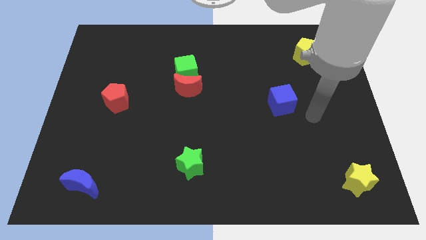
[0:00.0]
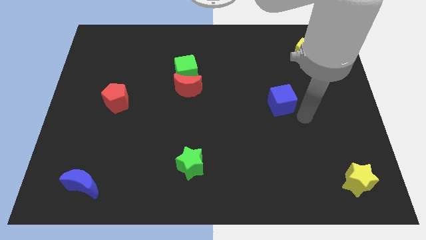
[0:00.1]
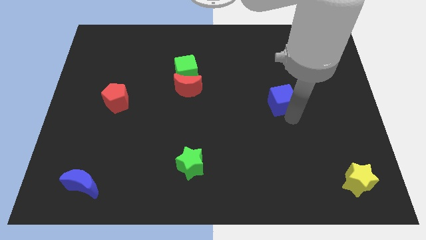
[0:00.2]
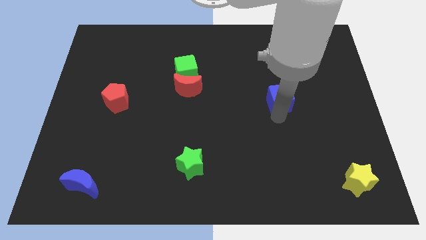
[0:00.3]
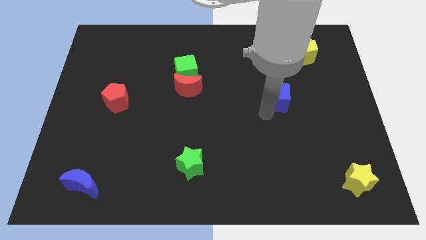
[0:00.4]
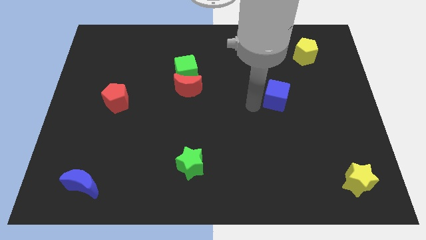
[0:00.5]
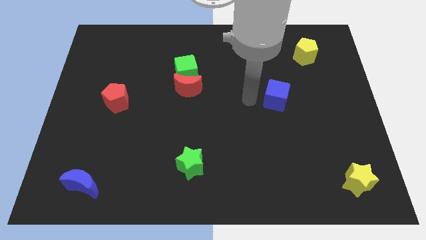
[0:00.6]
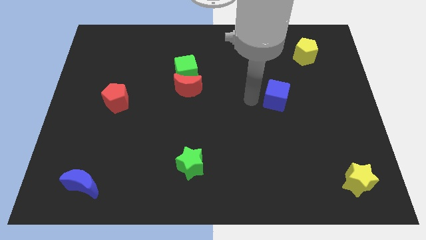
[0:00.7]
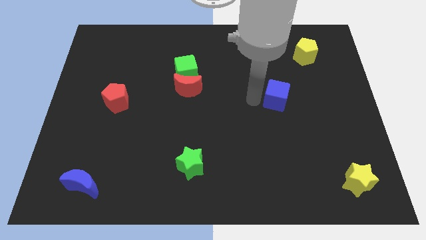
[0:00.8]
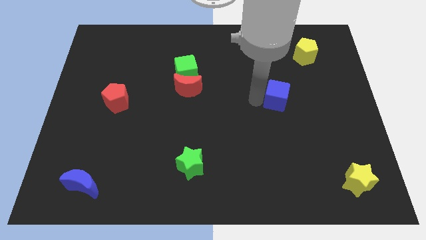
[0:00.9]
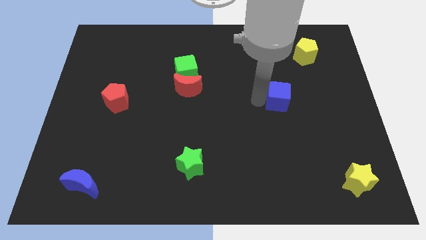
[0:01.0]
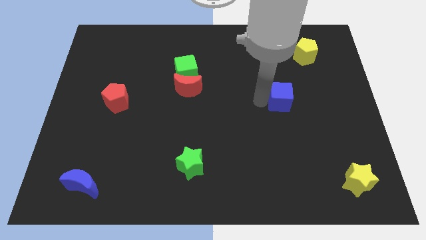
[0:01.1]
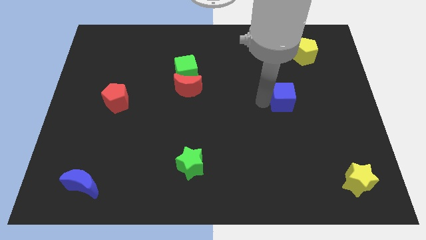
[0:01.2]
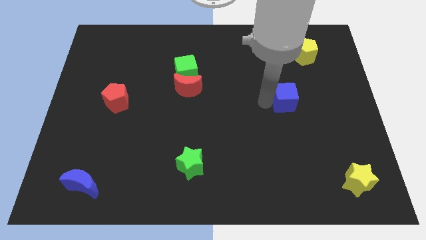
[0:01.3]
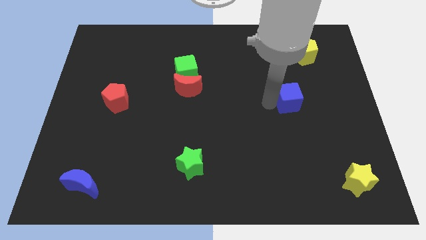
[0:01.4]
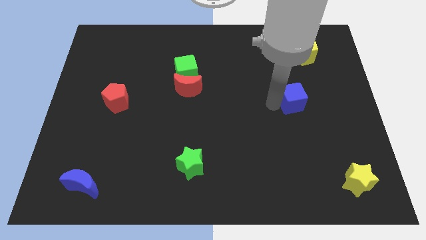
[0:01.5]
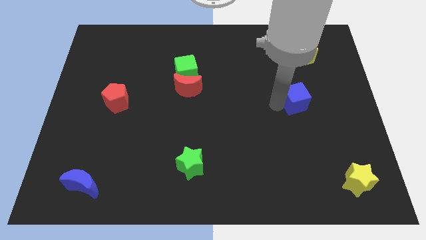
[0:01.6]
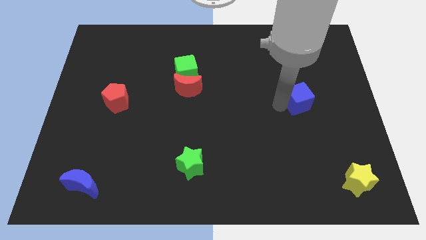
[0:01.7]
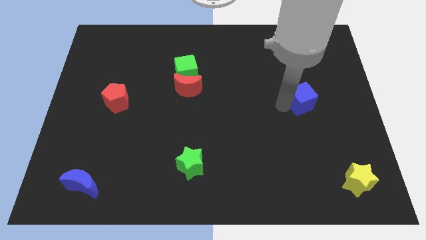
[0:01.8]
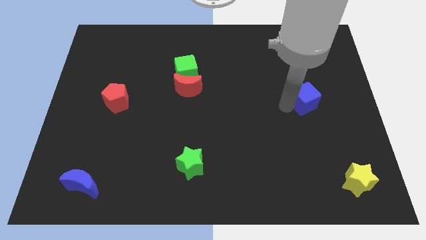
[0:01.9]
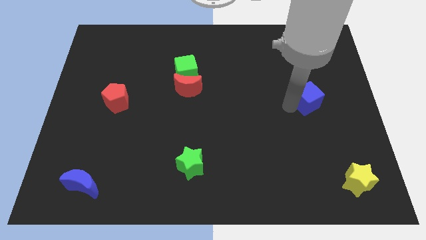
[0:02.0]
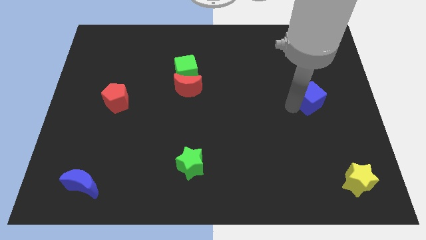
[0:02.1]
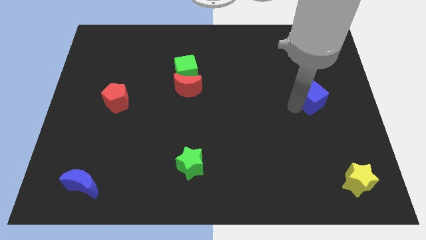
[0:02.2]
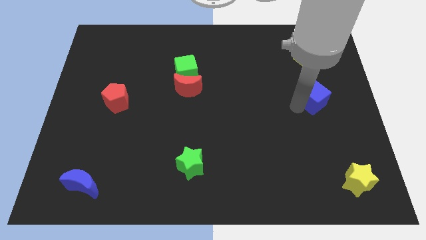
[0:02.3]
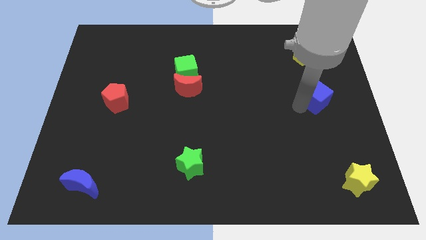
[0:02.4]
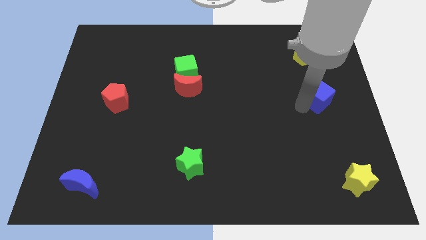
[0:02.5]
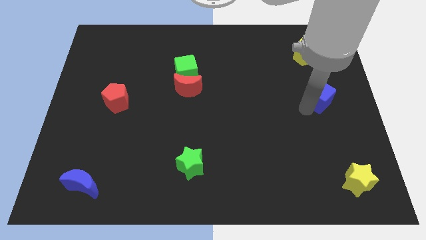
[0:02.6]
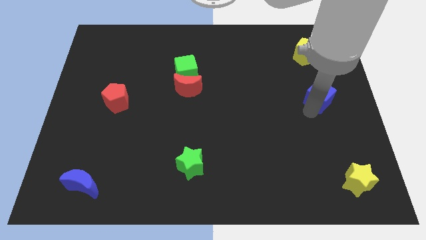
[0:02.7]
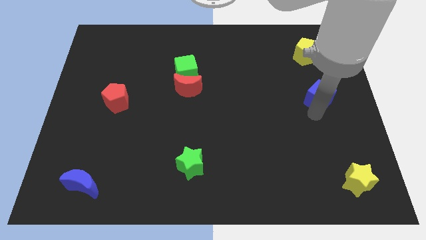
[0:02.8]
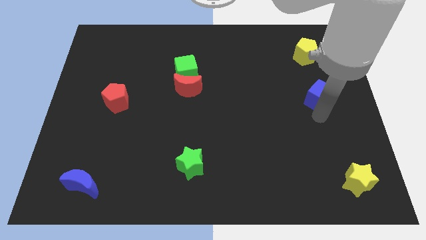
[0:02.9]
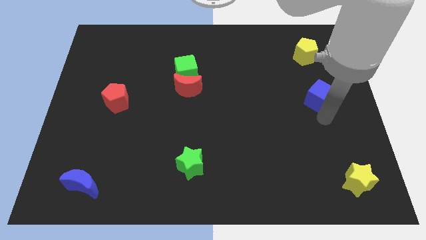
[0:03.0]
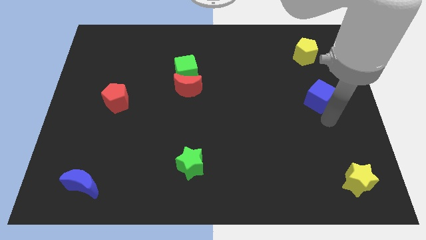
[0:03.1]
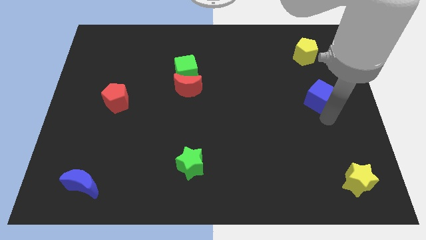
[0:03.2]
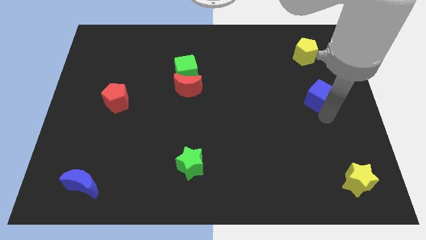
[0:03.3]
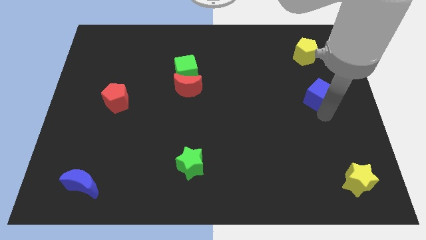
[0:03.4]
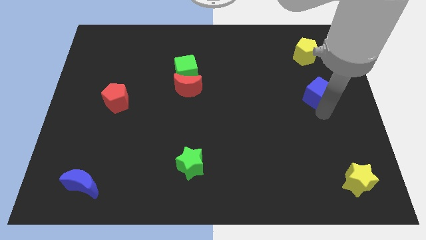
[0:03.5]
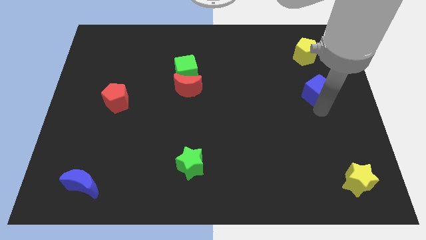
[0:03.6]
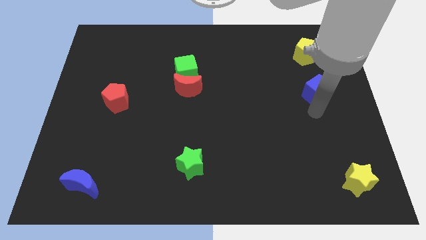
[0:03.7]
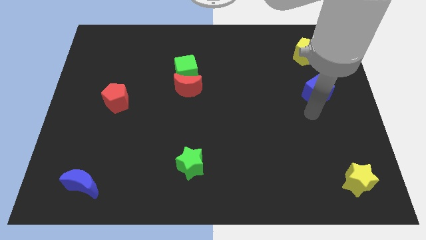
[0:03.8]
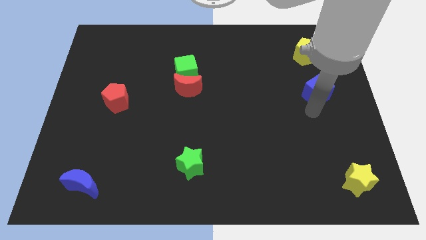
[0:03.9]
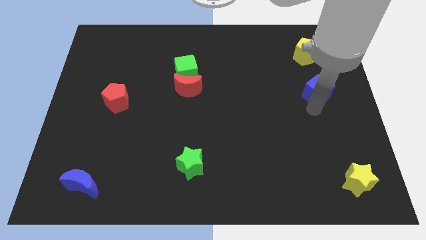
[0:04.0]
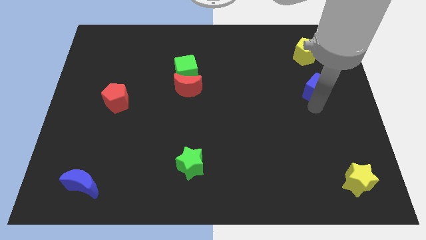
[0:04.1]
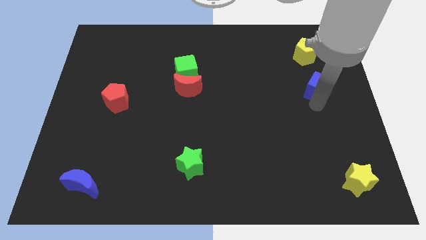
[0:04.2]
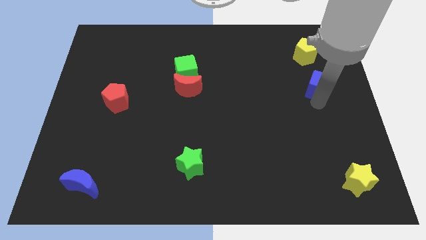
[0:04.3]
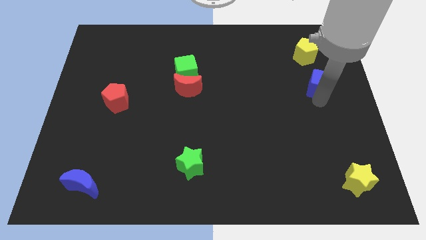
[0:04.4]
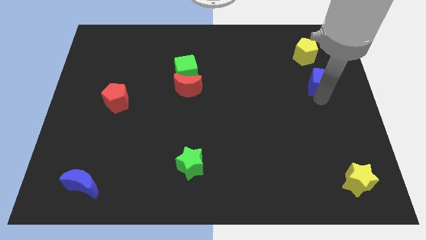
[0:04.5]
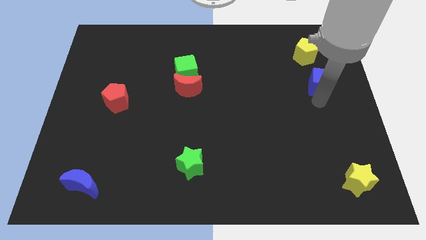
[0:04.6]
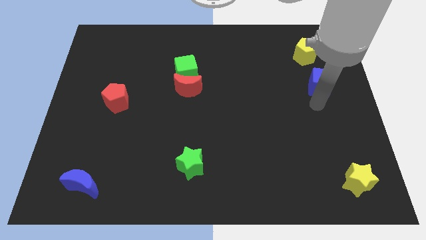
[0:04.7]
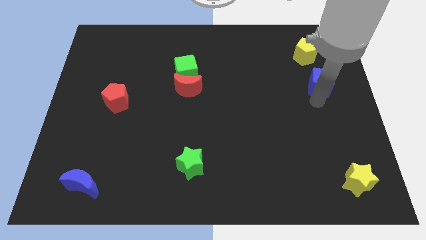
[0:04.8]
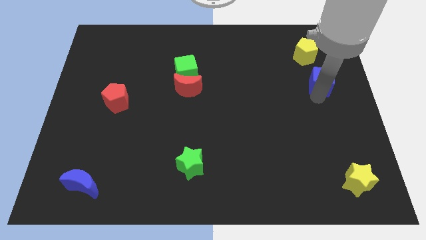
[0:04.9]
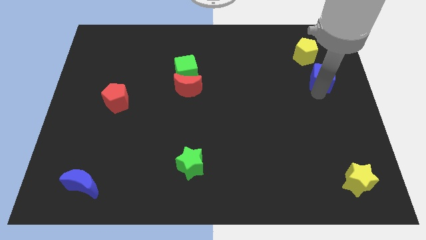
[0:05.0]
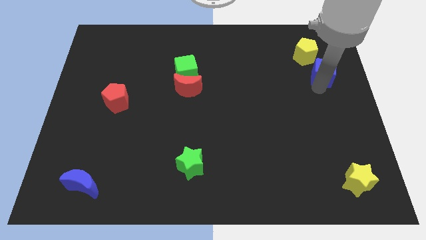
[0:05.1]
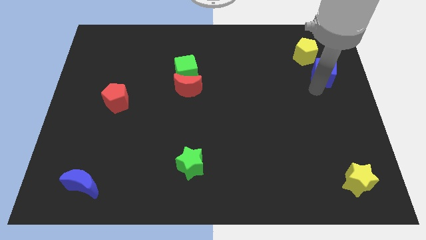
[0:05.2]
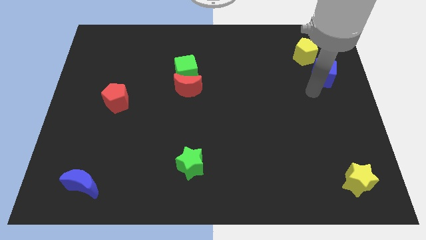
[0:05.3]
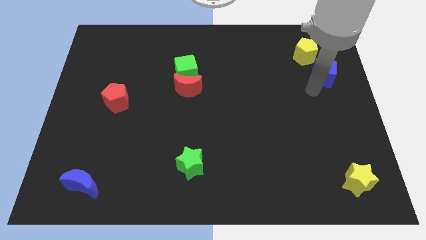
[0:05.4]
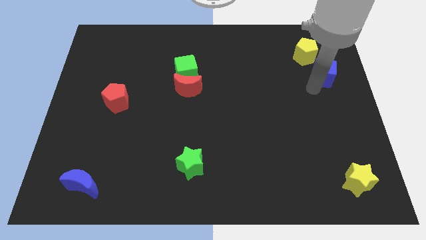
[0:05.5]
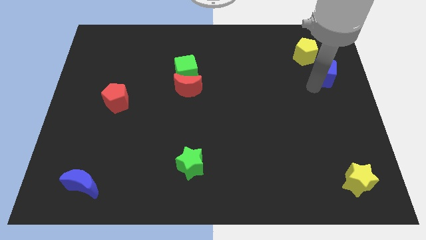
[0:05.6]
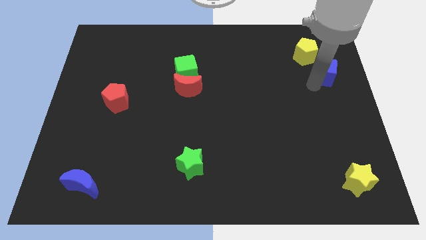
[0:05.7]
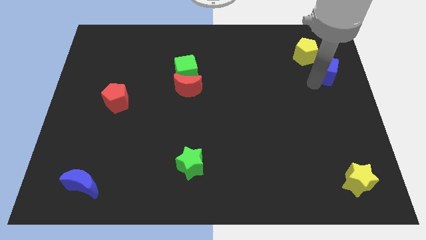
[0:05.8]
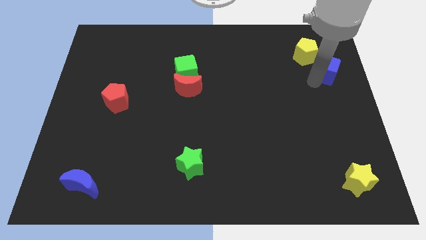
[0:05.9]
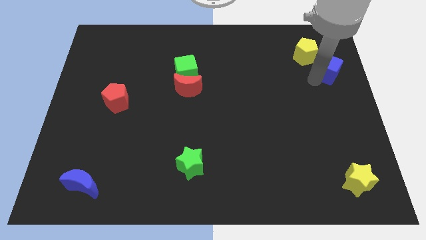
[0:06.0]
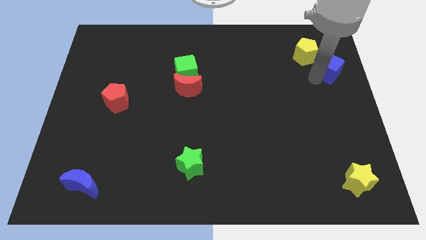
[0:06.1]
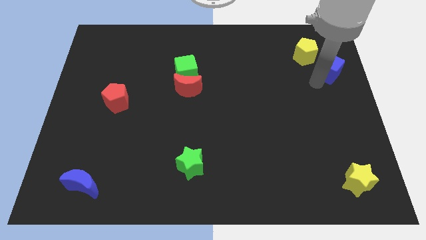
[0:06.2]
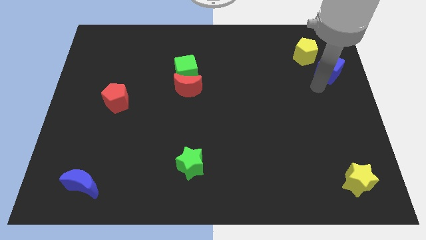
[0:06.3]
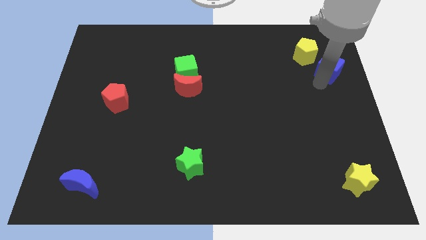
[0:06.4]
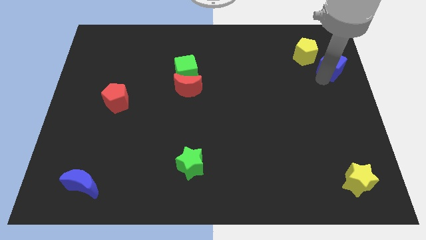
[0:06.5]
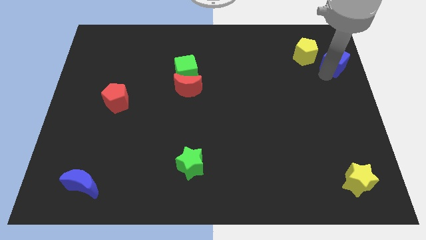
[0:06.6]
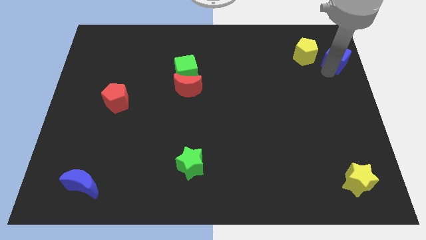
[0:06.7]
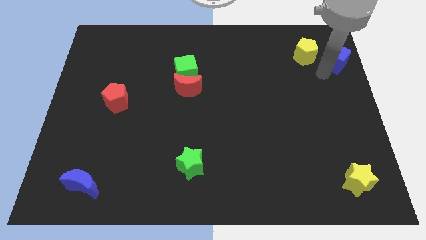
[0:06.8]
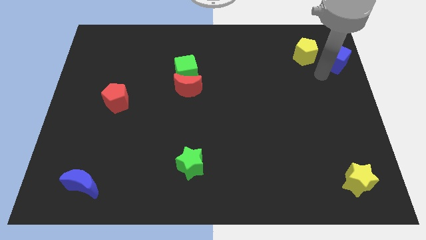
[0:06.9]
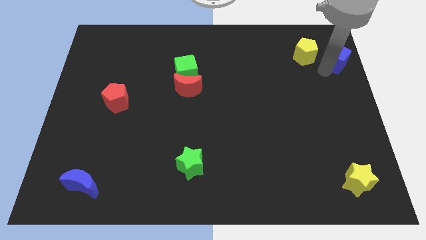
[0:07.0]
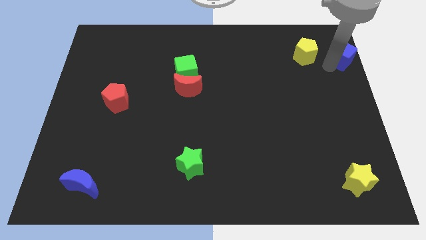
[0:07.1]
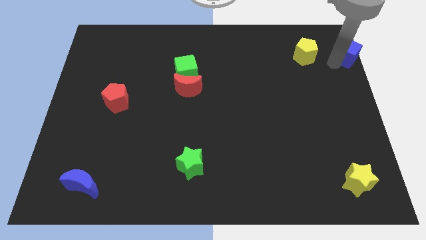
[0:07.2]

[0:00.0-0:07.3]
push the blue cube to the top right of the board
